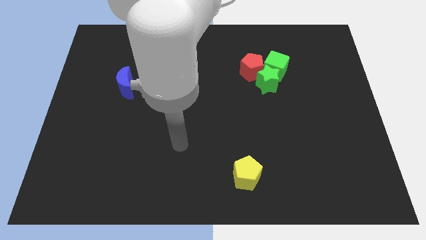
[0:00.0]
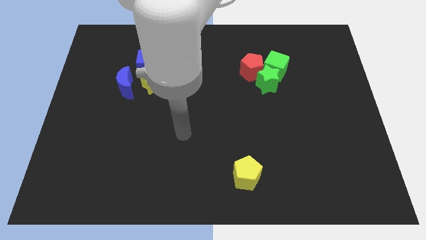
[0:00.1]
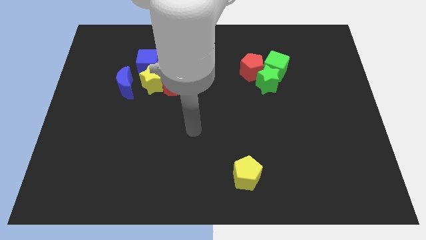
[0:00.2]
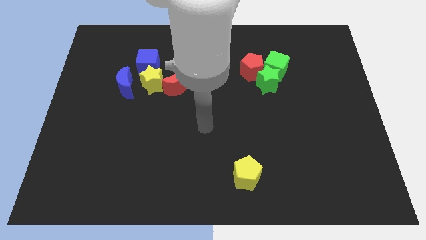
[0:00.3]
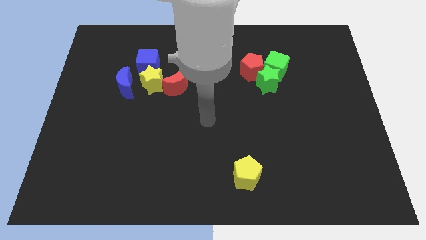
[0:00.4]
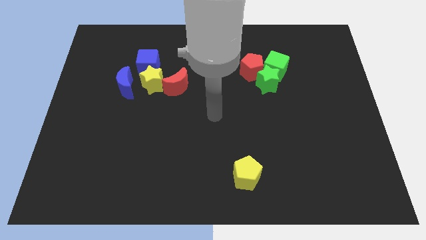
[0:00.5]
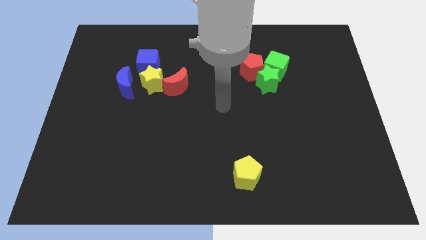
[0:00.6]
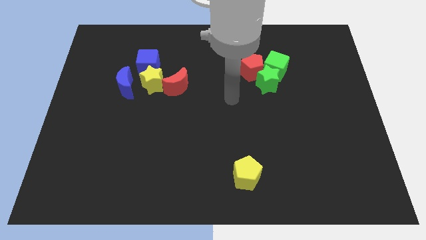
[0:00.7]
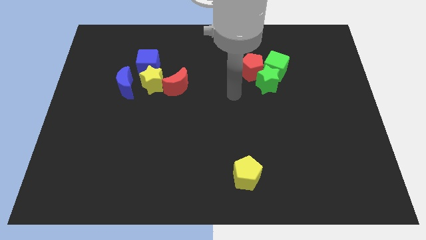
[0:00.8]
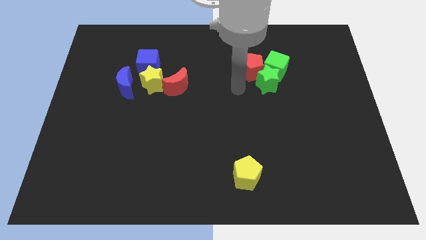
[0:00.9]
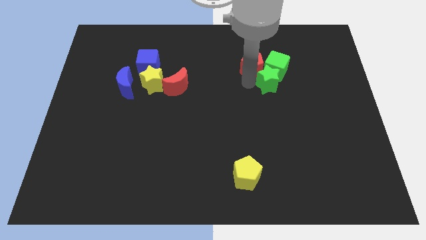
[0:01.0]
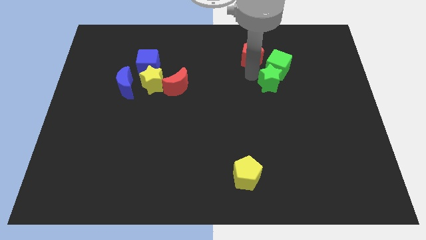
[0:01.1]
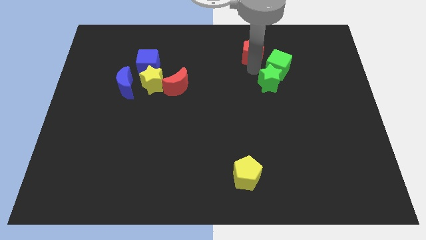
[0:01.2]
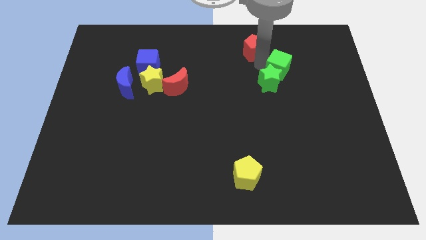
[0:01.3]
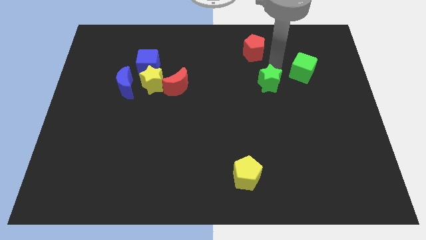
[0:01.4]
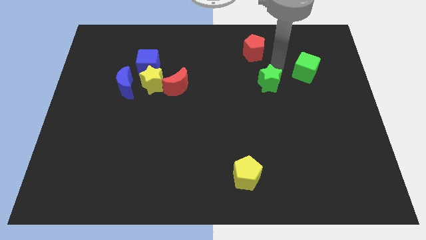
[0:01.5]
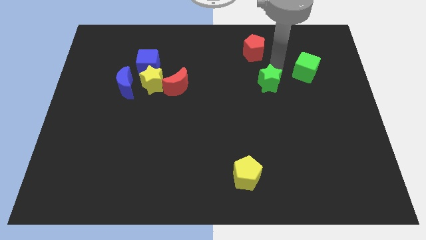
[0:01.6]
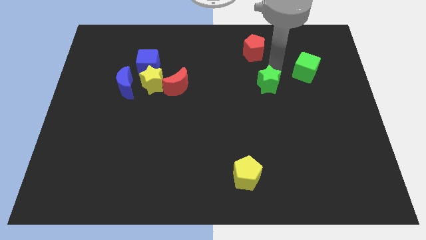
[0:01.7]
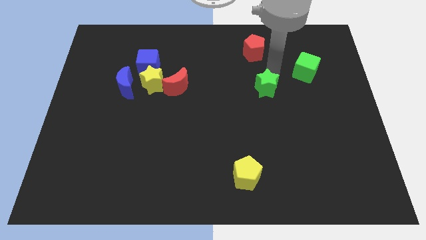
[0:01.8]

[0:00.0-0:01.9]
separate the green star from the red pentagon and green cube

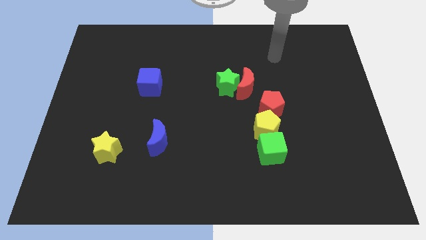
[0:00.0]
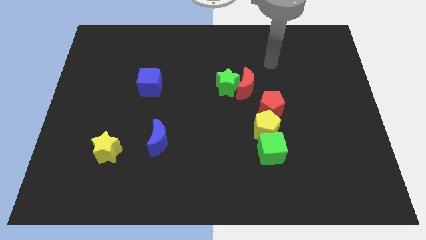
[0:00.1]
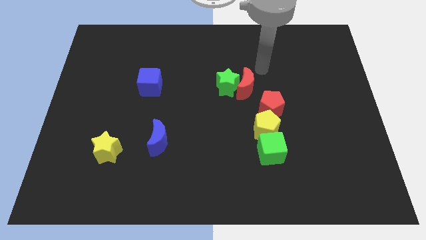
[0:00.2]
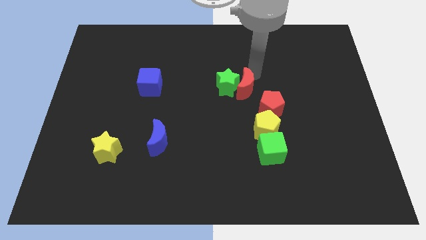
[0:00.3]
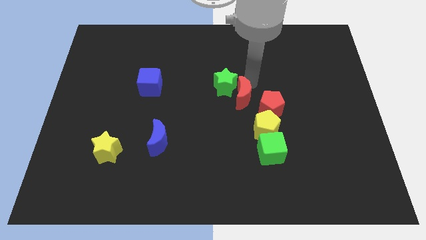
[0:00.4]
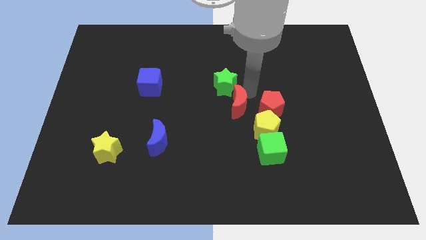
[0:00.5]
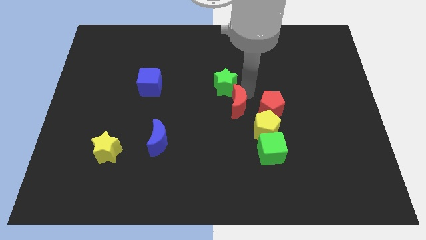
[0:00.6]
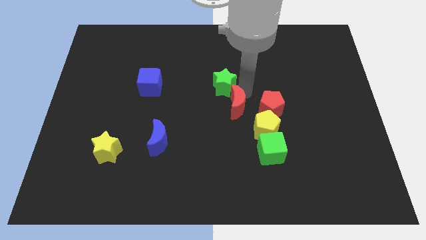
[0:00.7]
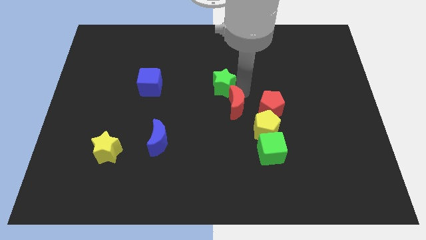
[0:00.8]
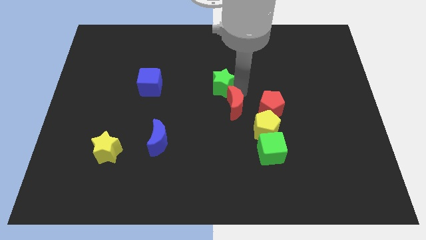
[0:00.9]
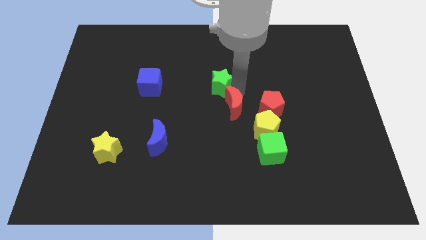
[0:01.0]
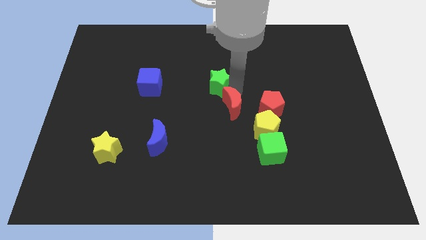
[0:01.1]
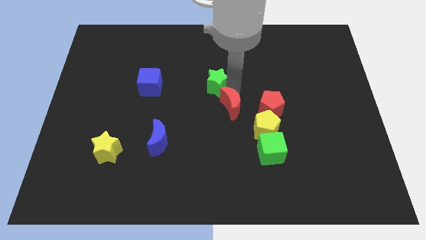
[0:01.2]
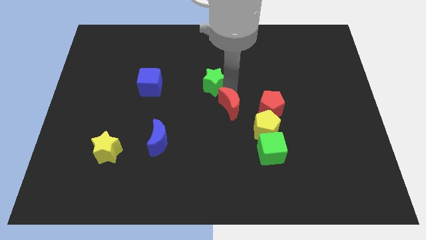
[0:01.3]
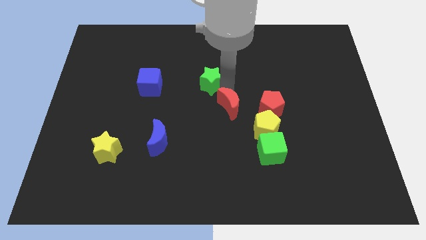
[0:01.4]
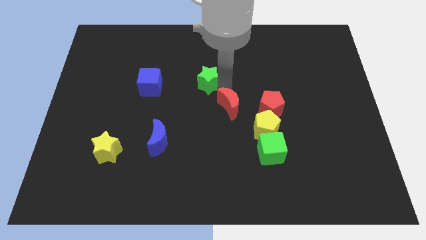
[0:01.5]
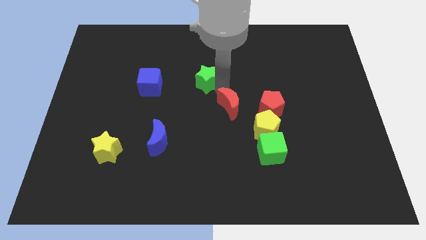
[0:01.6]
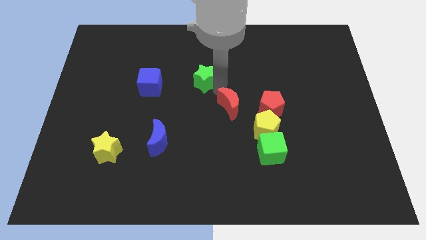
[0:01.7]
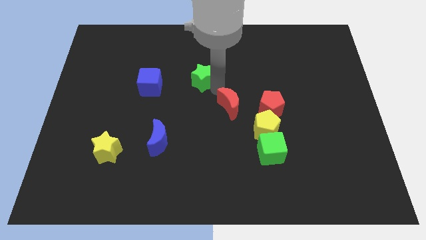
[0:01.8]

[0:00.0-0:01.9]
separate the green star from the red moon

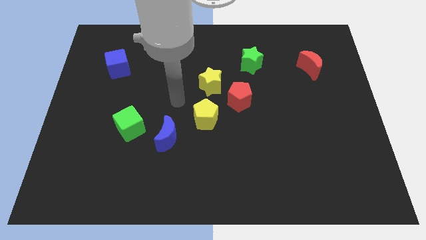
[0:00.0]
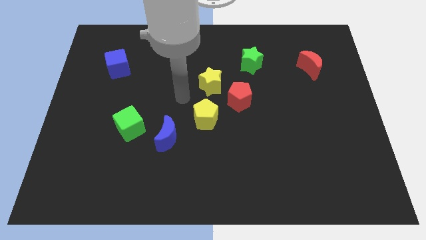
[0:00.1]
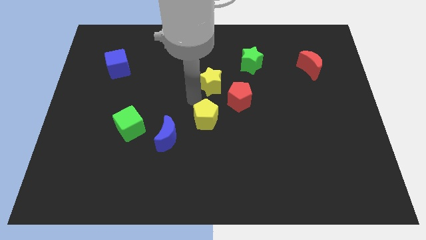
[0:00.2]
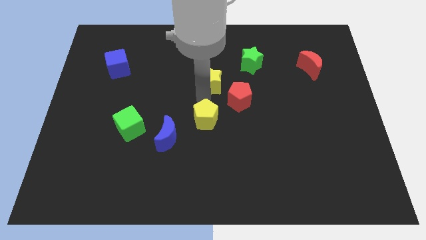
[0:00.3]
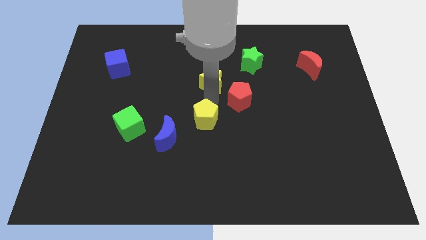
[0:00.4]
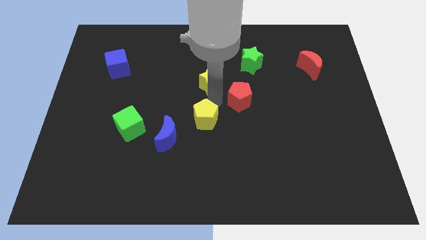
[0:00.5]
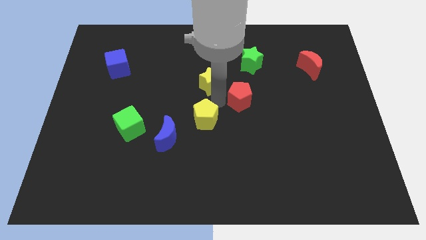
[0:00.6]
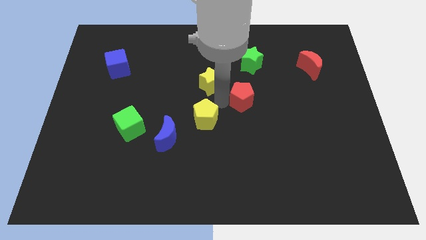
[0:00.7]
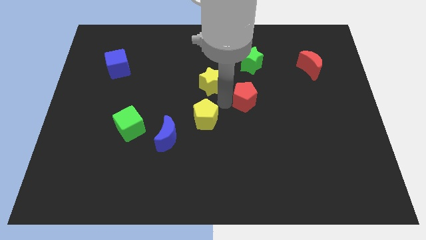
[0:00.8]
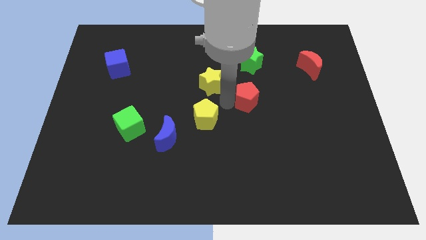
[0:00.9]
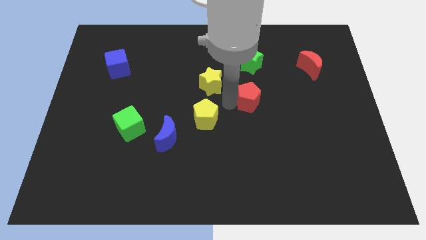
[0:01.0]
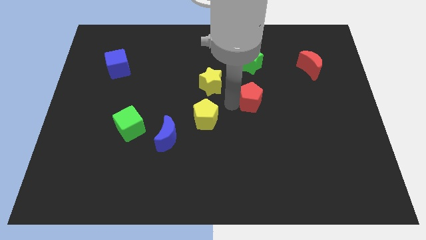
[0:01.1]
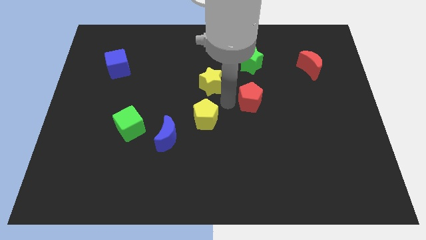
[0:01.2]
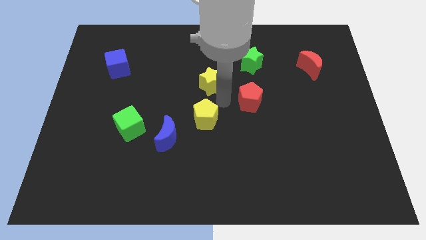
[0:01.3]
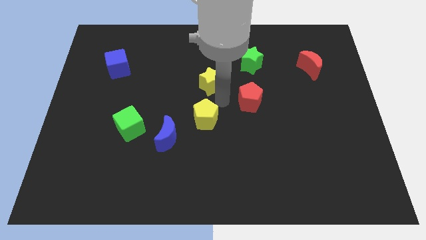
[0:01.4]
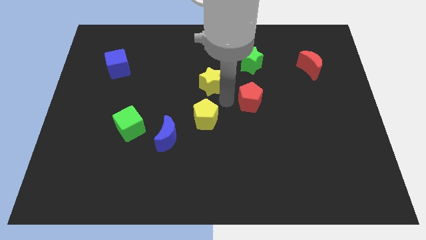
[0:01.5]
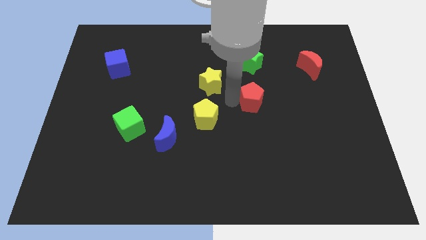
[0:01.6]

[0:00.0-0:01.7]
pull the red pentagon apart from the yellow star and yellow pentagon

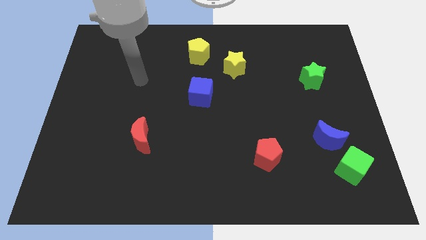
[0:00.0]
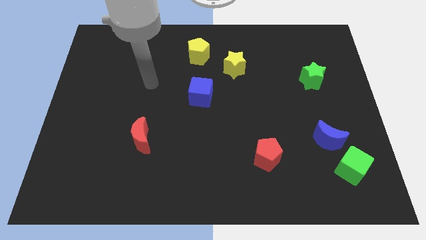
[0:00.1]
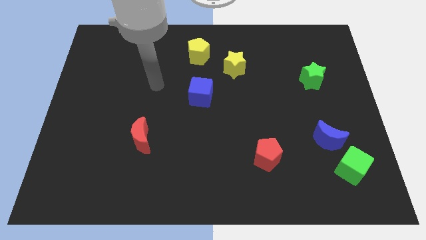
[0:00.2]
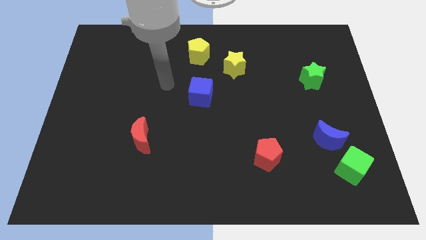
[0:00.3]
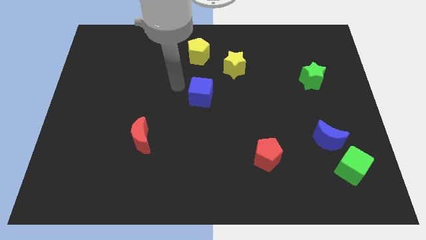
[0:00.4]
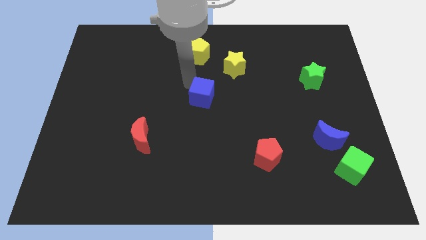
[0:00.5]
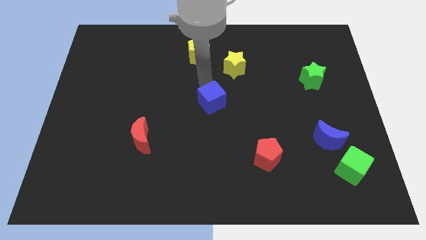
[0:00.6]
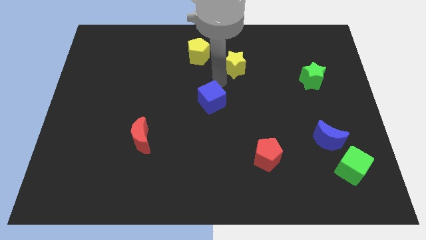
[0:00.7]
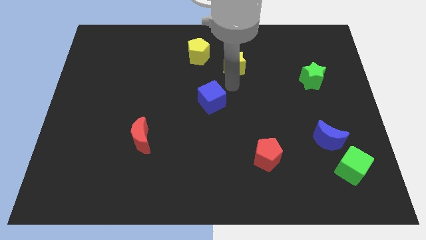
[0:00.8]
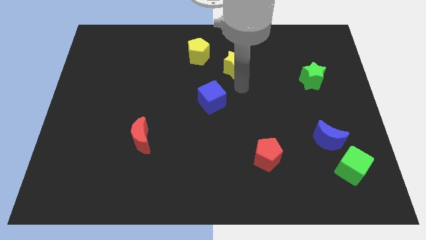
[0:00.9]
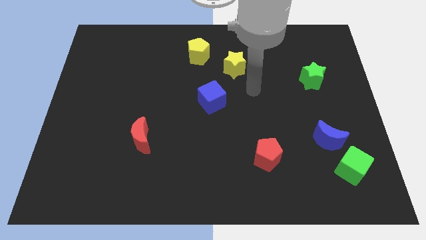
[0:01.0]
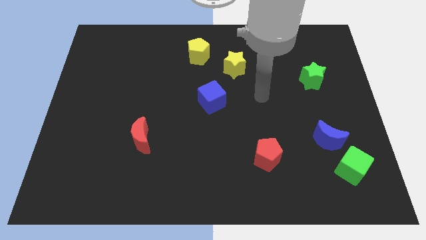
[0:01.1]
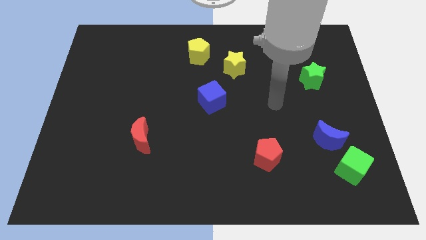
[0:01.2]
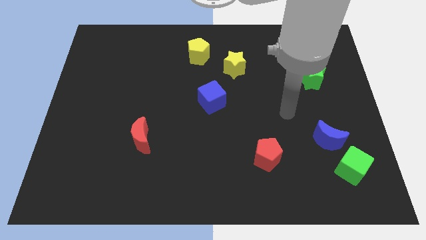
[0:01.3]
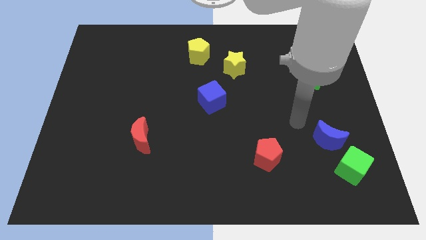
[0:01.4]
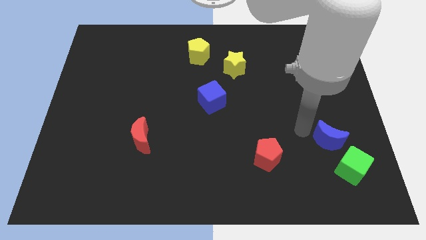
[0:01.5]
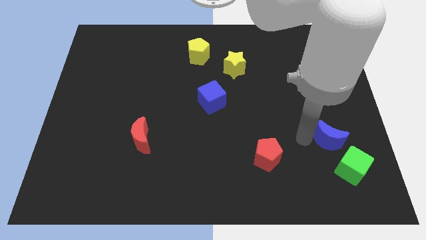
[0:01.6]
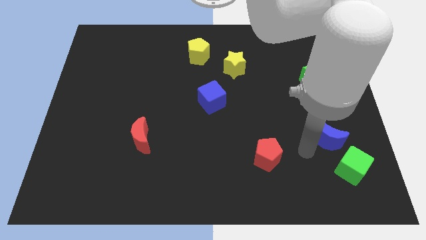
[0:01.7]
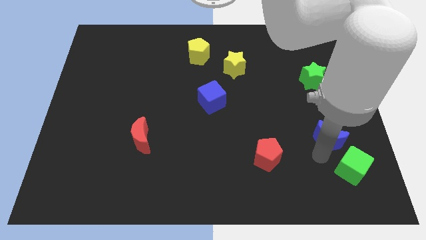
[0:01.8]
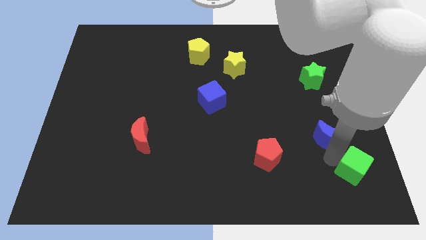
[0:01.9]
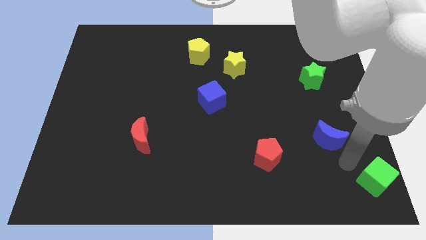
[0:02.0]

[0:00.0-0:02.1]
pull the blue moon apart from the green cube

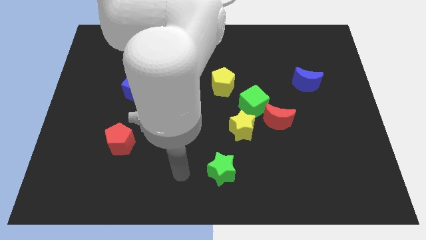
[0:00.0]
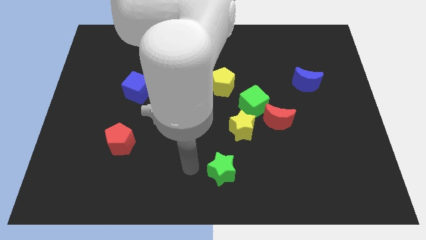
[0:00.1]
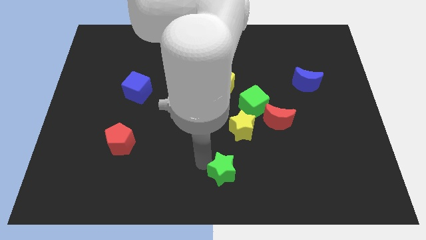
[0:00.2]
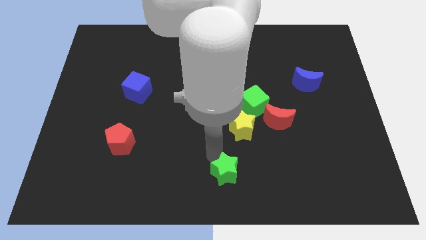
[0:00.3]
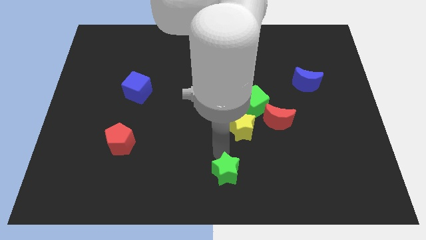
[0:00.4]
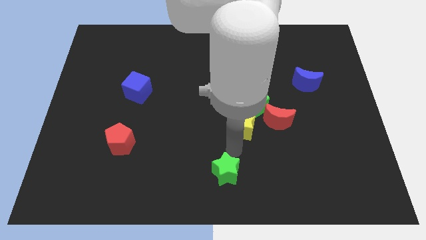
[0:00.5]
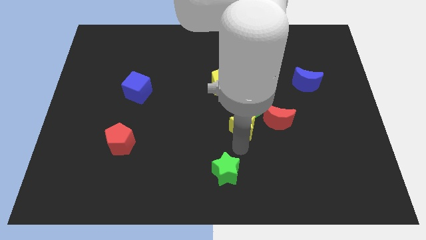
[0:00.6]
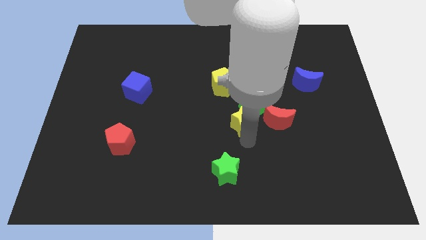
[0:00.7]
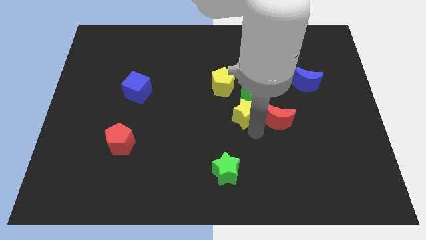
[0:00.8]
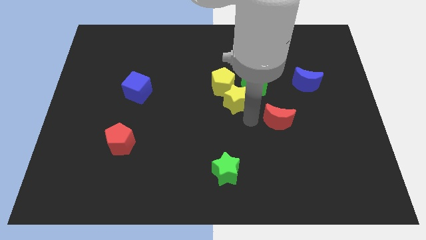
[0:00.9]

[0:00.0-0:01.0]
separate the red moon from the green cube and yellow star

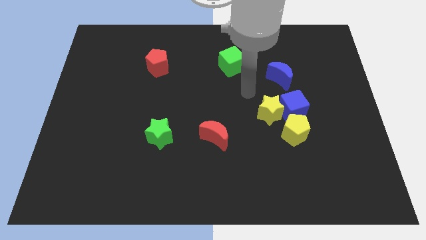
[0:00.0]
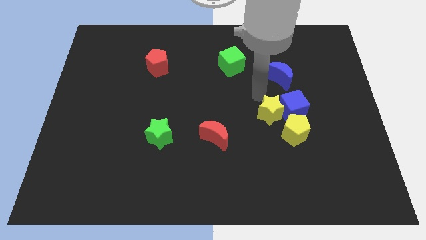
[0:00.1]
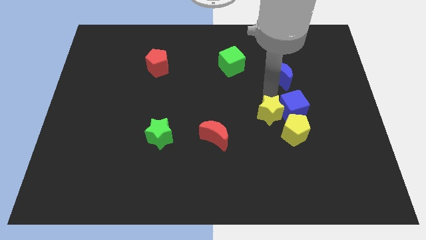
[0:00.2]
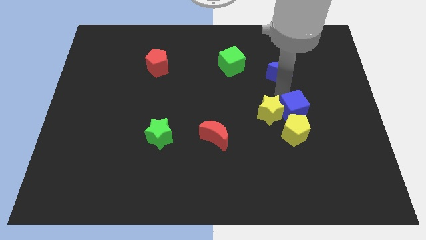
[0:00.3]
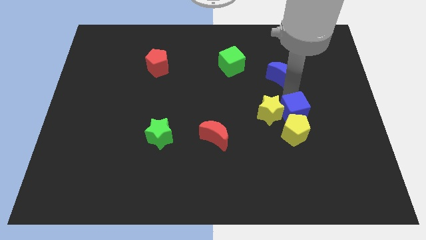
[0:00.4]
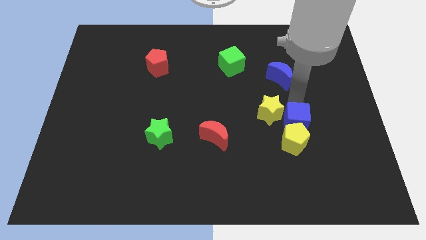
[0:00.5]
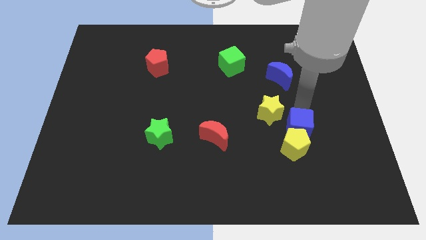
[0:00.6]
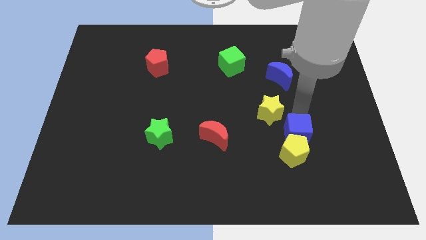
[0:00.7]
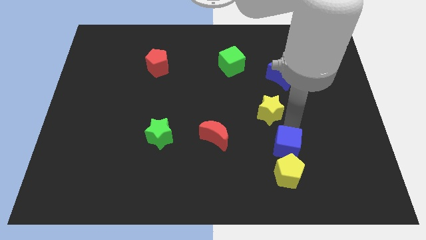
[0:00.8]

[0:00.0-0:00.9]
separate the yellow star from the blue cube and yellow pentagon
